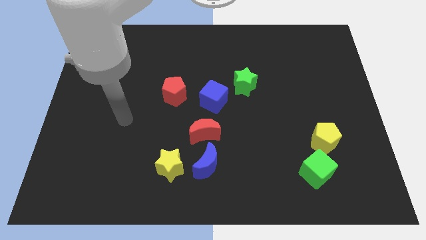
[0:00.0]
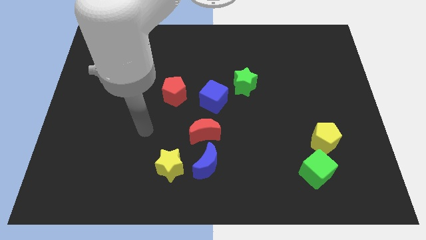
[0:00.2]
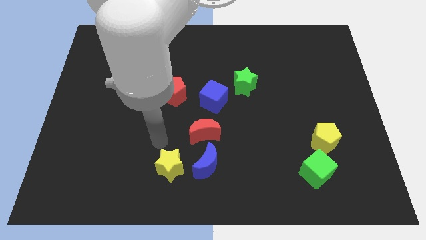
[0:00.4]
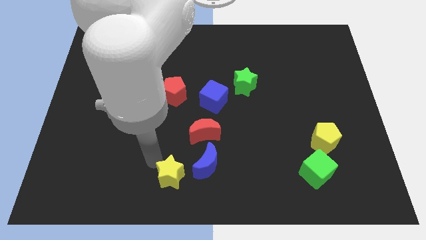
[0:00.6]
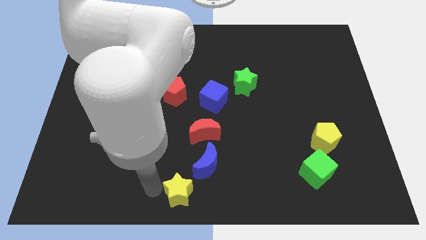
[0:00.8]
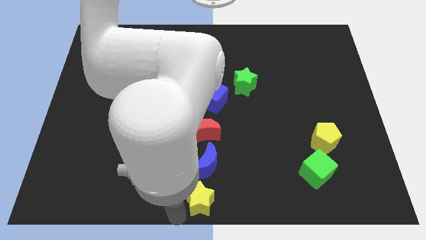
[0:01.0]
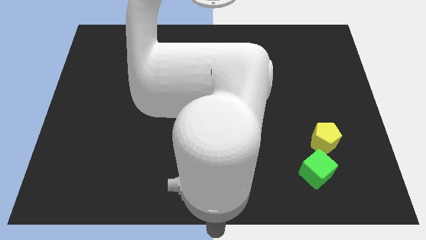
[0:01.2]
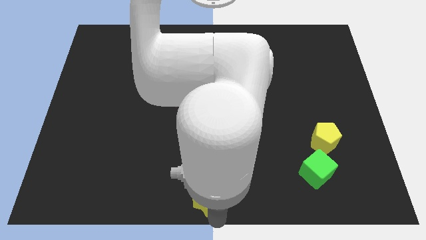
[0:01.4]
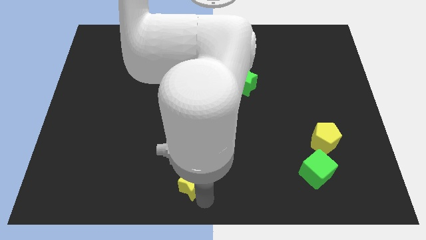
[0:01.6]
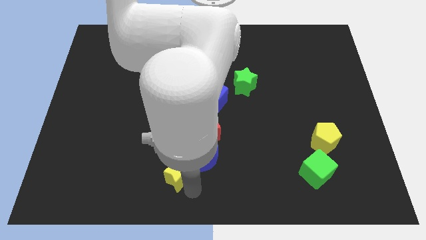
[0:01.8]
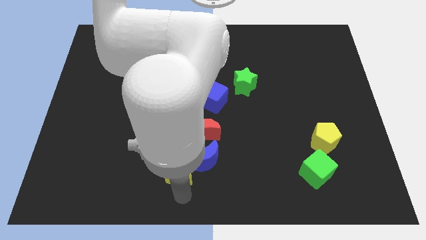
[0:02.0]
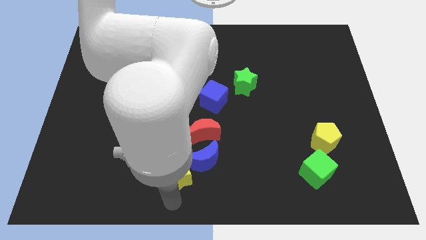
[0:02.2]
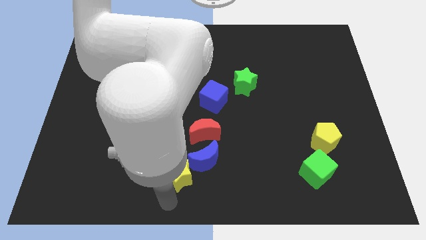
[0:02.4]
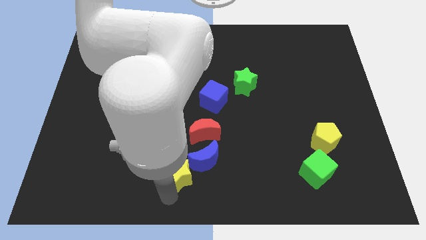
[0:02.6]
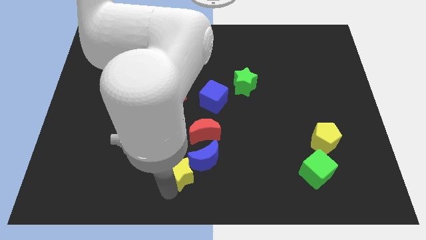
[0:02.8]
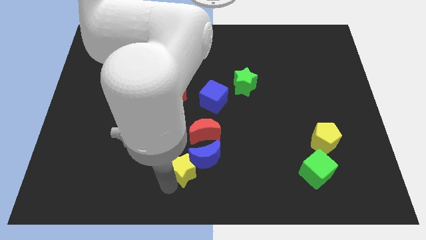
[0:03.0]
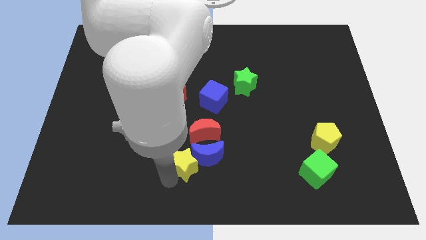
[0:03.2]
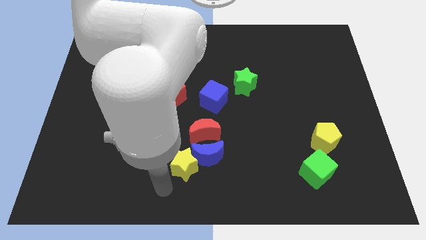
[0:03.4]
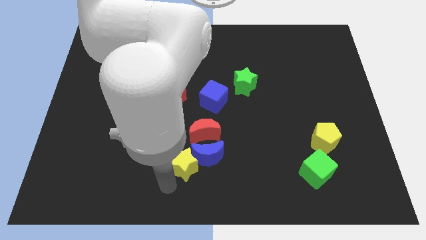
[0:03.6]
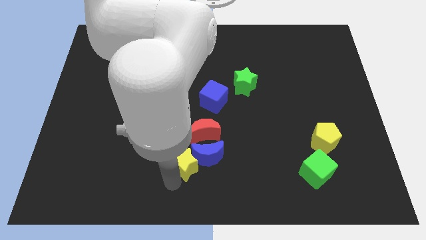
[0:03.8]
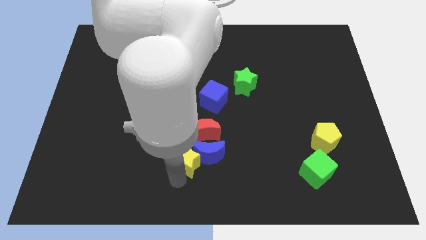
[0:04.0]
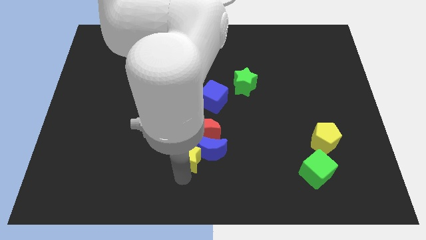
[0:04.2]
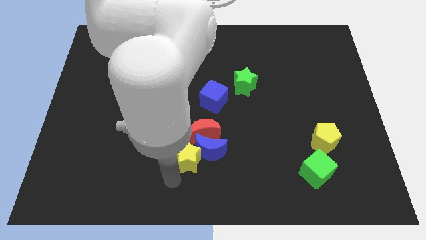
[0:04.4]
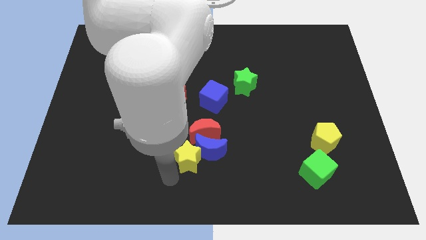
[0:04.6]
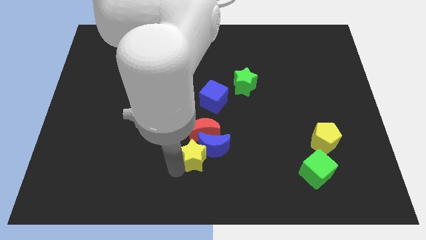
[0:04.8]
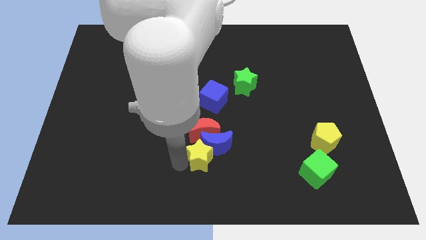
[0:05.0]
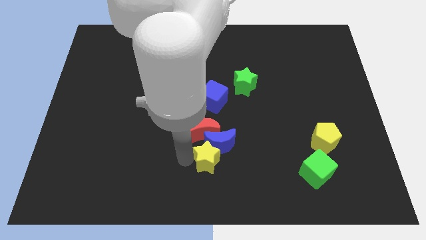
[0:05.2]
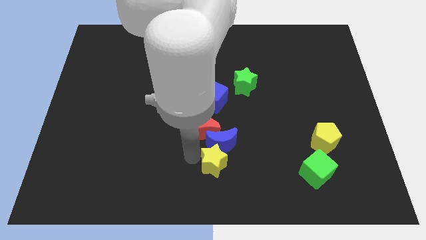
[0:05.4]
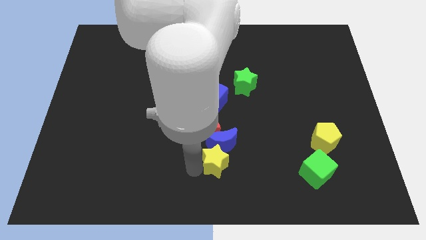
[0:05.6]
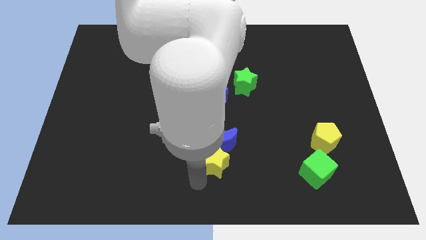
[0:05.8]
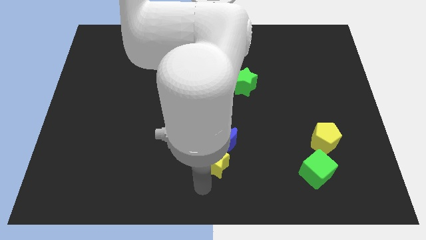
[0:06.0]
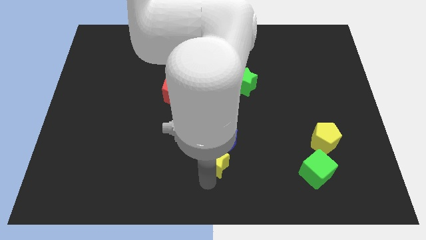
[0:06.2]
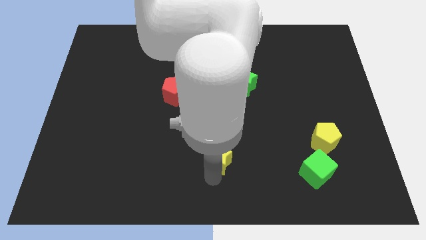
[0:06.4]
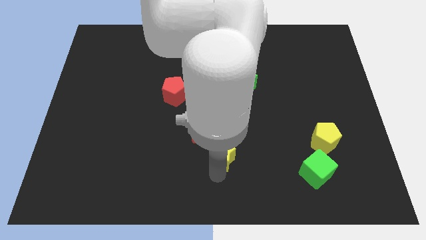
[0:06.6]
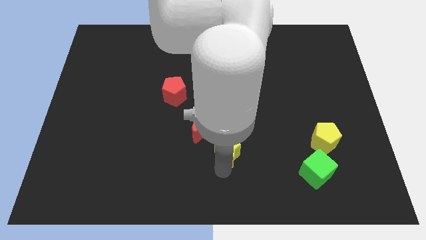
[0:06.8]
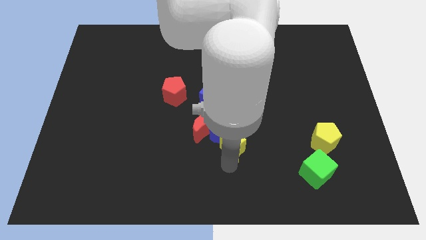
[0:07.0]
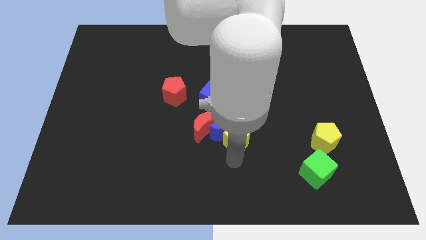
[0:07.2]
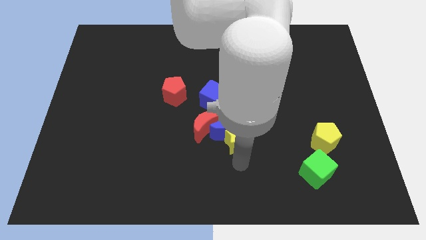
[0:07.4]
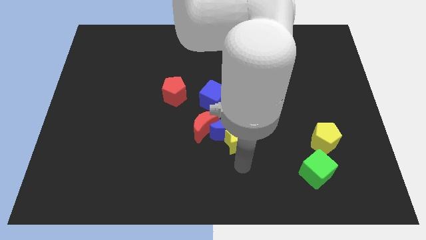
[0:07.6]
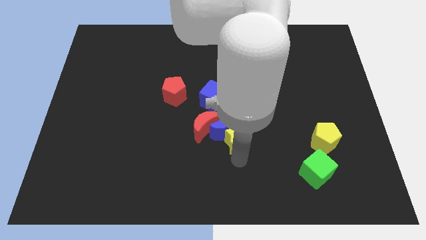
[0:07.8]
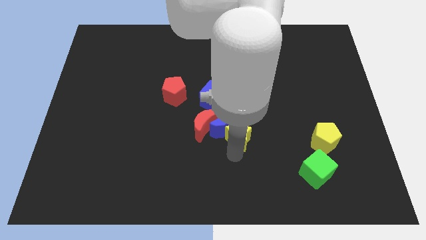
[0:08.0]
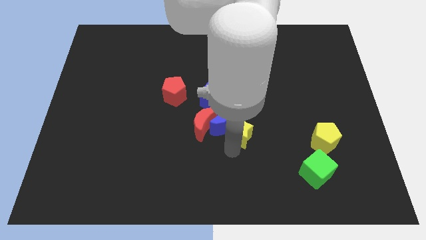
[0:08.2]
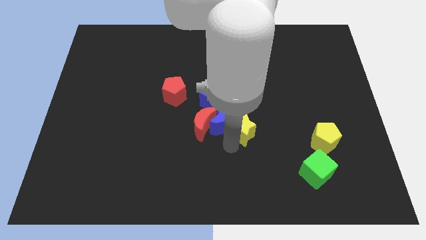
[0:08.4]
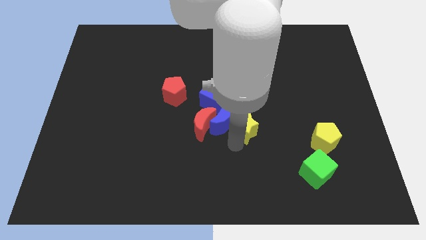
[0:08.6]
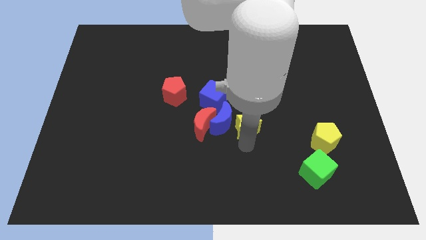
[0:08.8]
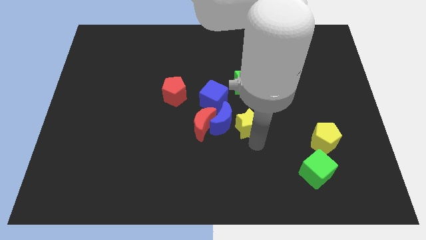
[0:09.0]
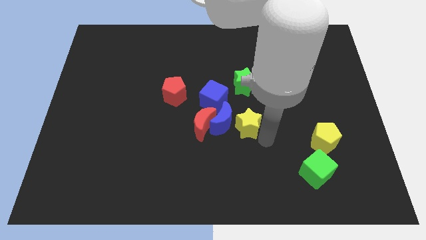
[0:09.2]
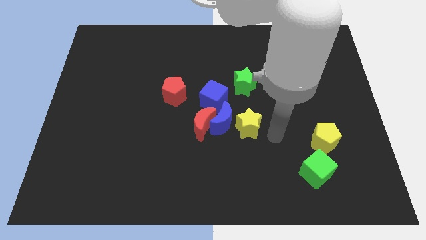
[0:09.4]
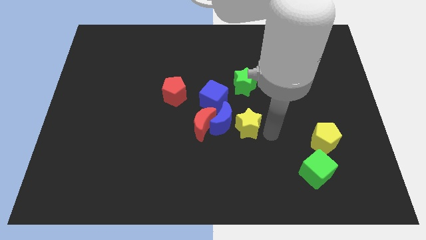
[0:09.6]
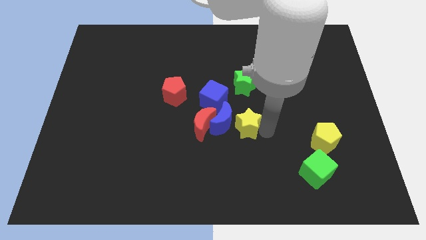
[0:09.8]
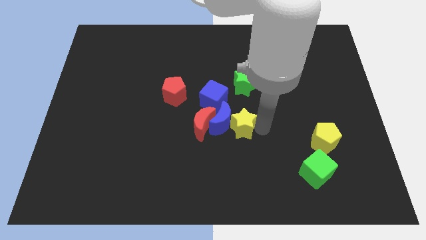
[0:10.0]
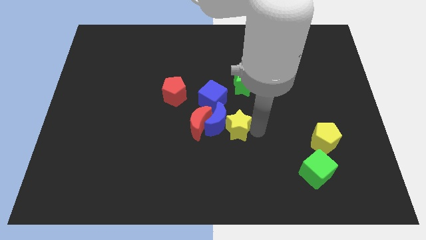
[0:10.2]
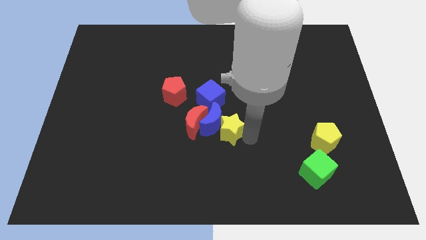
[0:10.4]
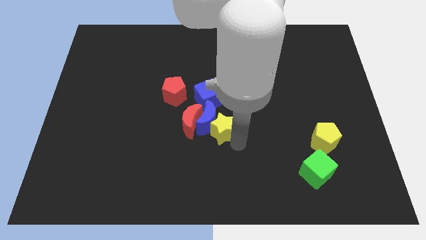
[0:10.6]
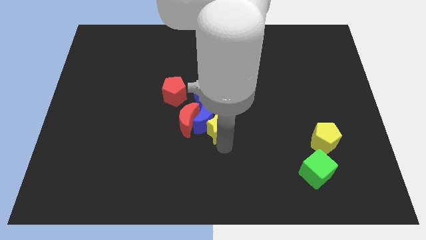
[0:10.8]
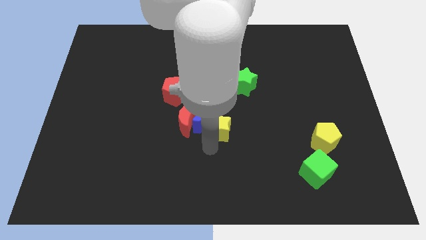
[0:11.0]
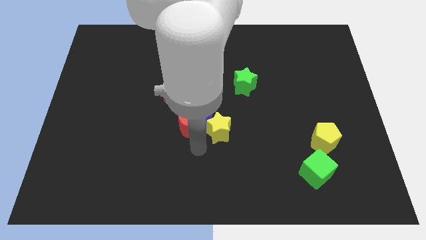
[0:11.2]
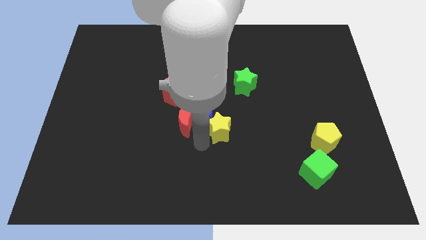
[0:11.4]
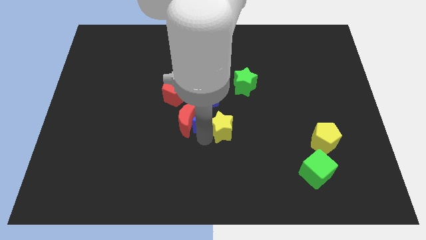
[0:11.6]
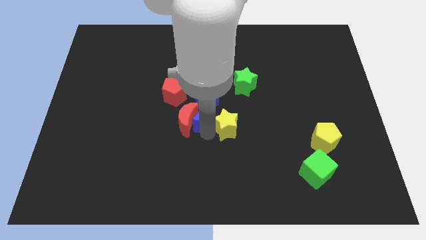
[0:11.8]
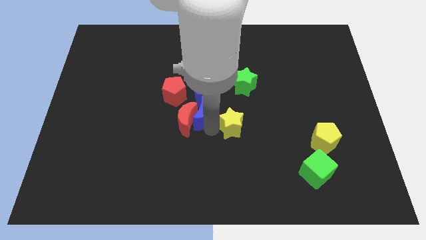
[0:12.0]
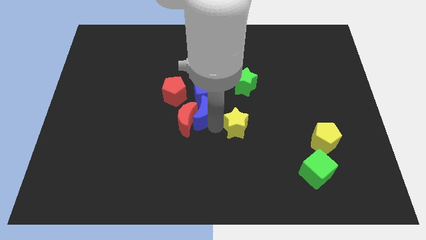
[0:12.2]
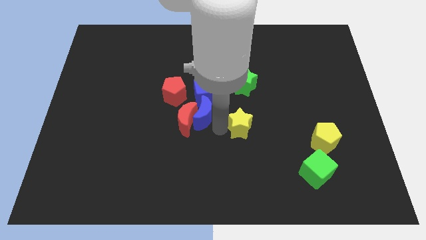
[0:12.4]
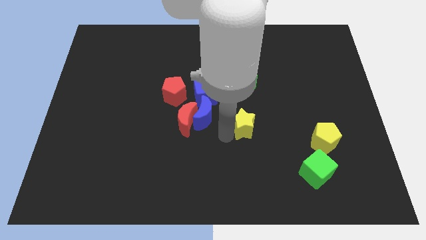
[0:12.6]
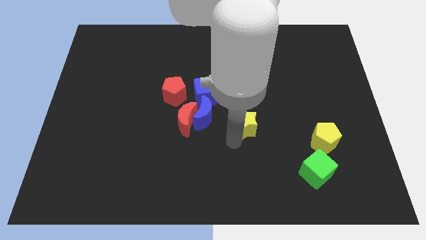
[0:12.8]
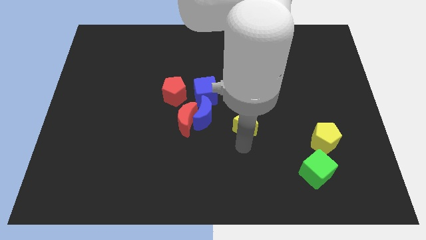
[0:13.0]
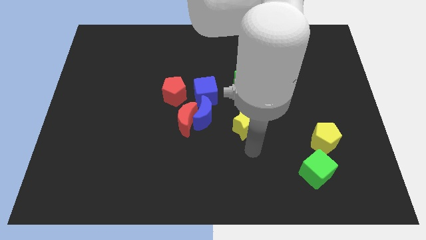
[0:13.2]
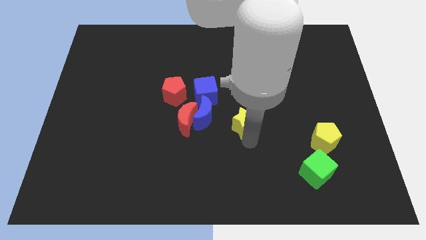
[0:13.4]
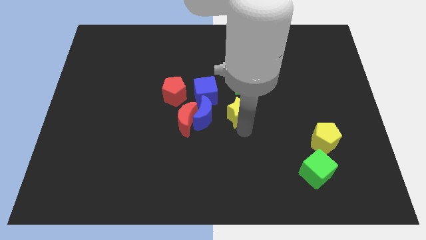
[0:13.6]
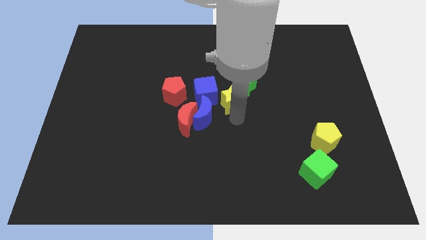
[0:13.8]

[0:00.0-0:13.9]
push the yellow star close to the green star

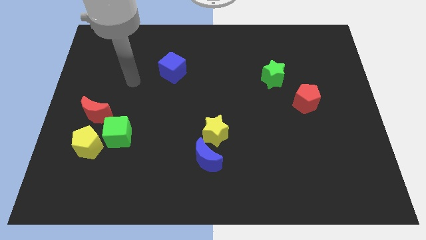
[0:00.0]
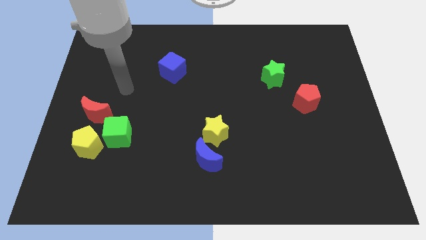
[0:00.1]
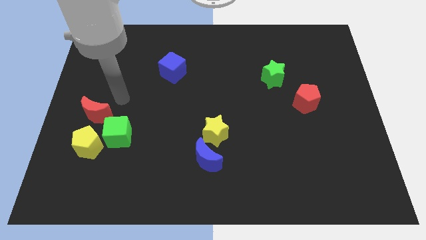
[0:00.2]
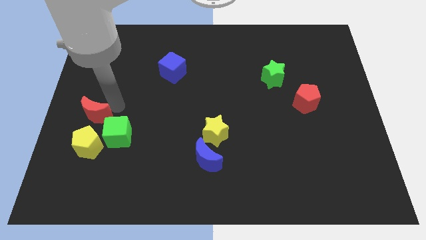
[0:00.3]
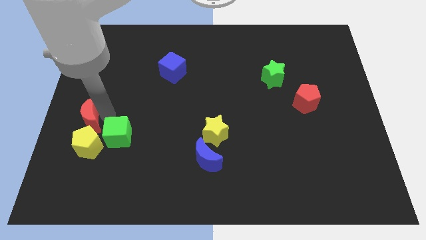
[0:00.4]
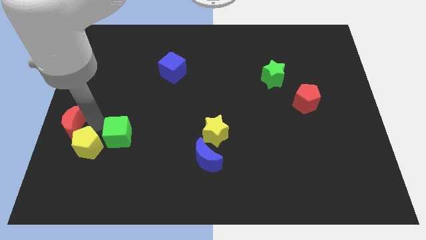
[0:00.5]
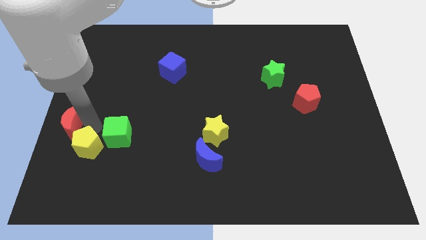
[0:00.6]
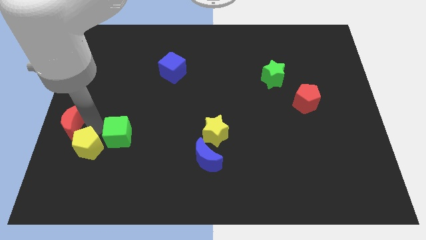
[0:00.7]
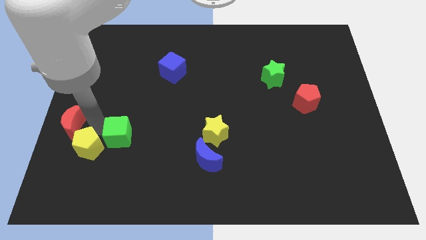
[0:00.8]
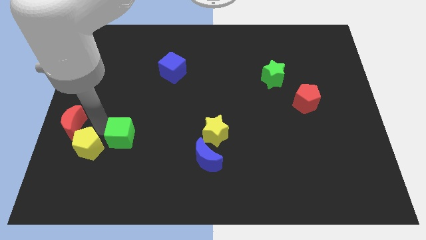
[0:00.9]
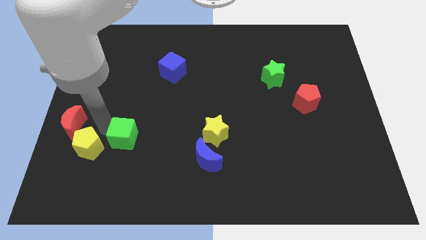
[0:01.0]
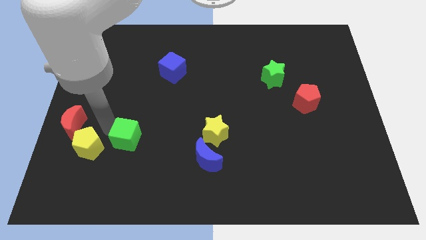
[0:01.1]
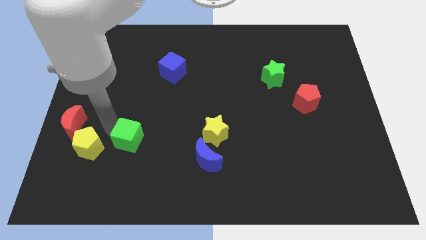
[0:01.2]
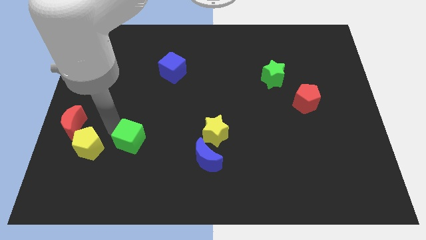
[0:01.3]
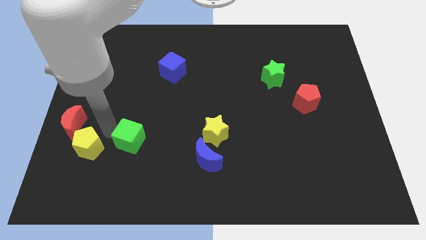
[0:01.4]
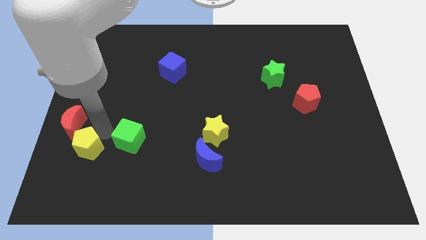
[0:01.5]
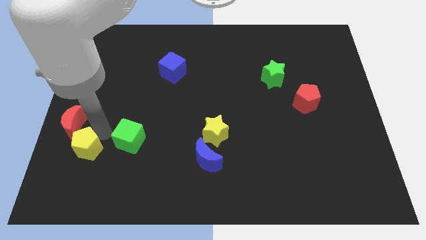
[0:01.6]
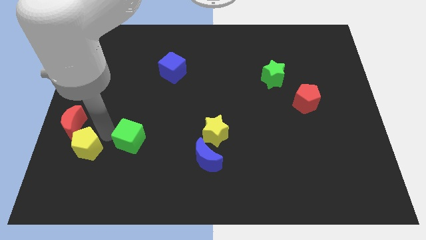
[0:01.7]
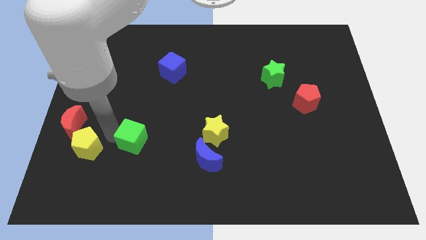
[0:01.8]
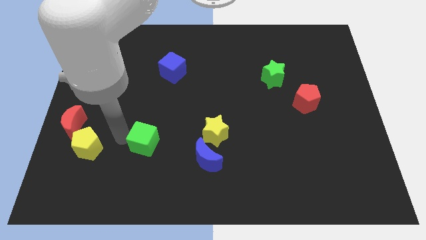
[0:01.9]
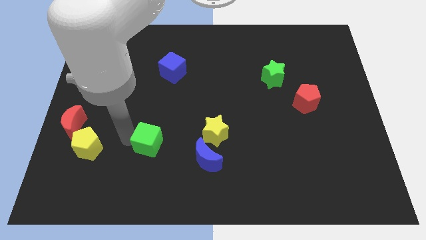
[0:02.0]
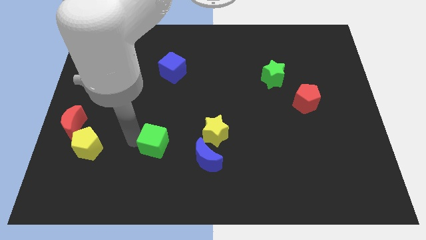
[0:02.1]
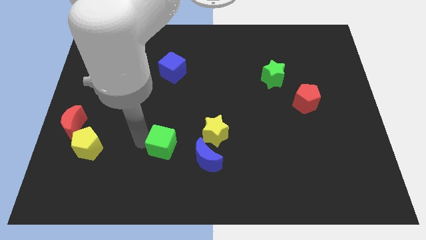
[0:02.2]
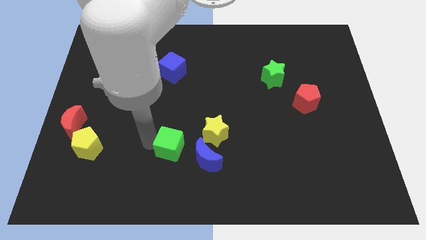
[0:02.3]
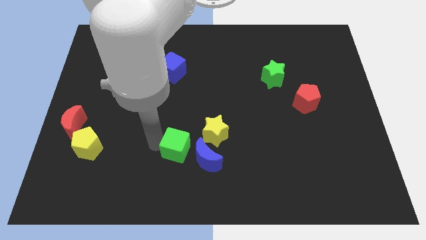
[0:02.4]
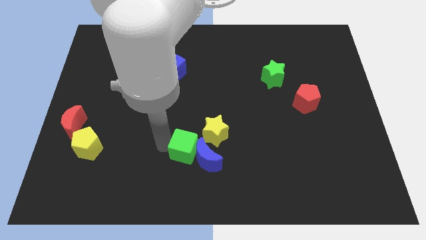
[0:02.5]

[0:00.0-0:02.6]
move the green cube towards the blue moon
